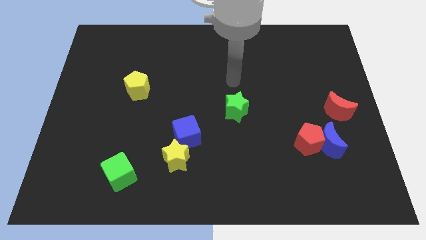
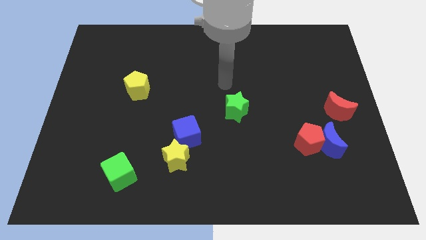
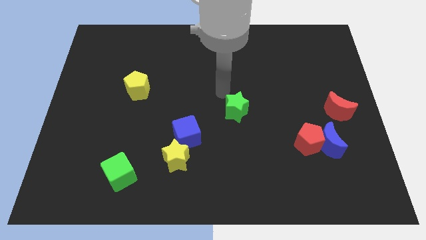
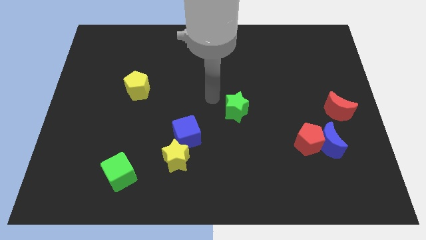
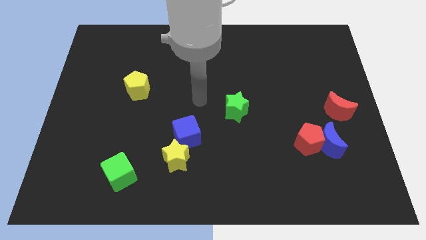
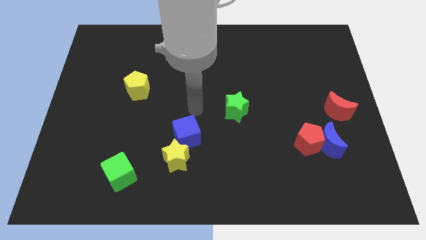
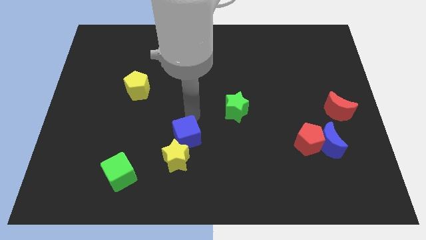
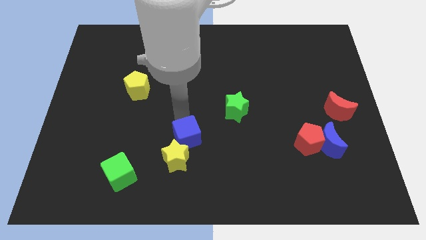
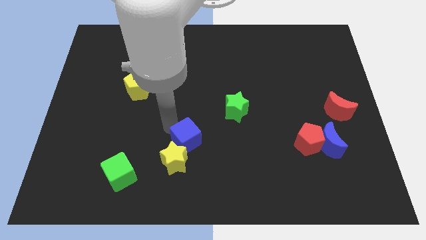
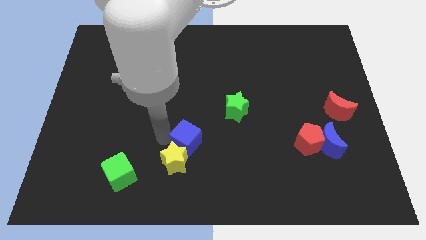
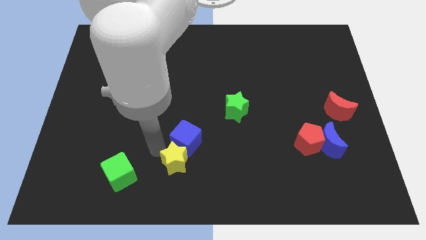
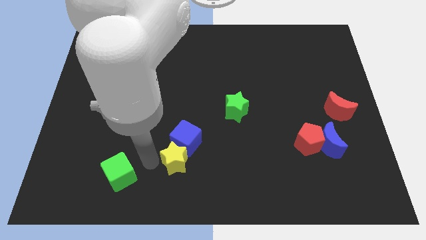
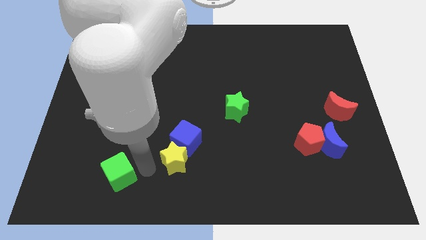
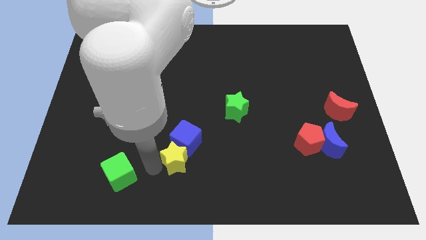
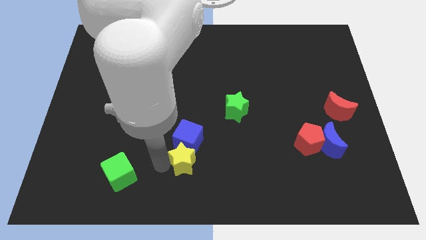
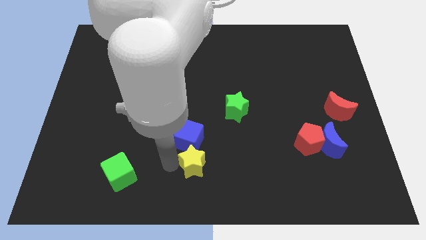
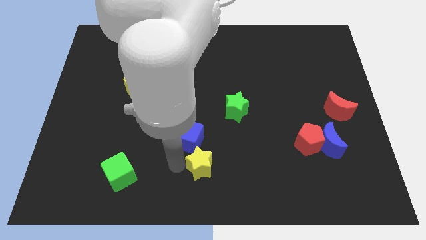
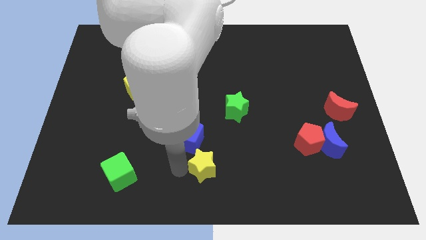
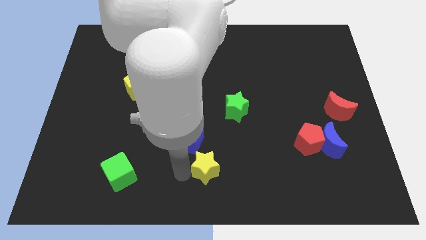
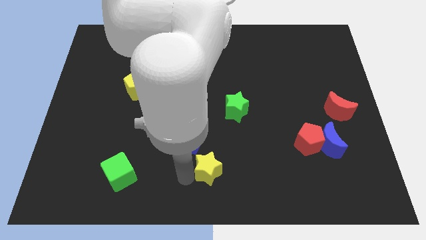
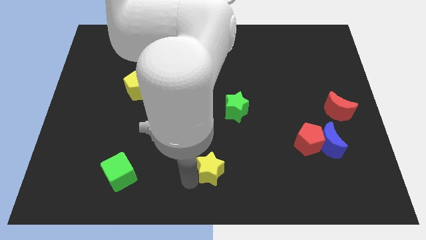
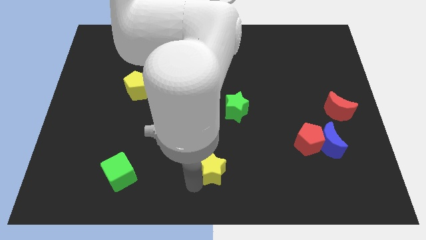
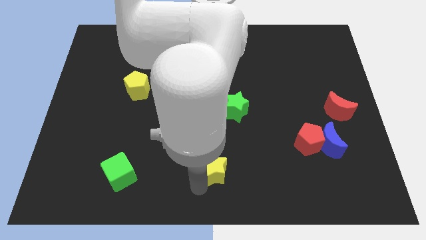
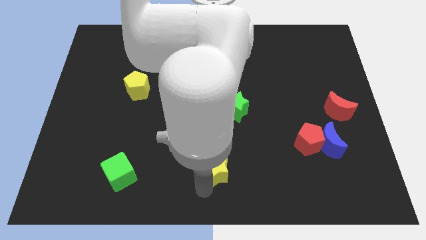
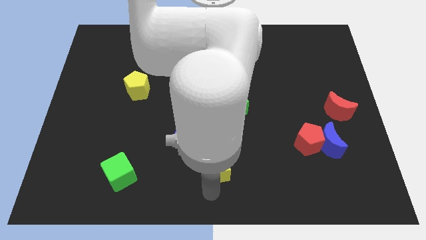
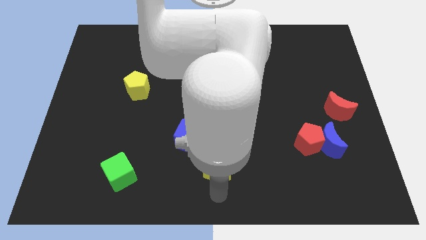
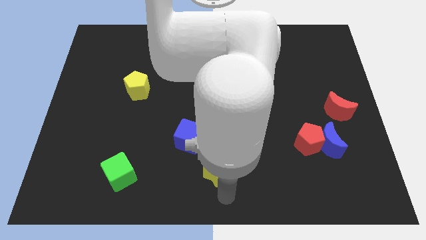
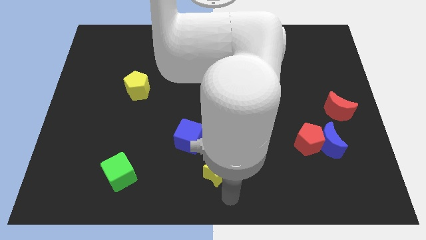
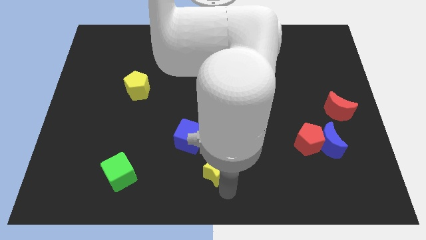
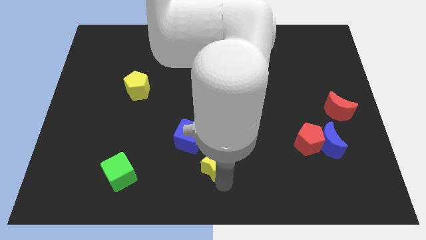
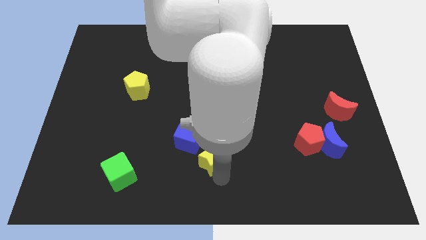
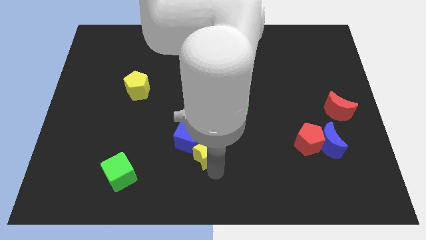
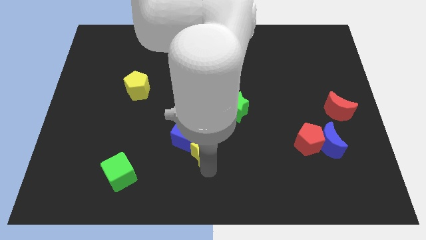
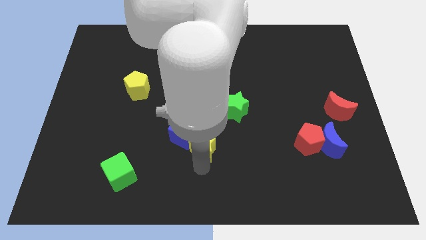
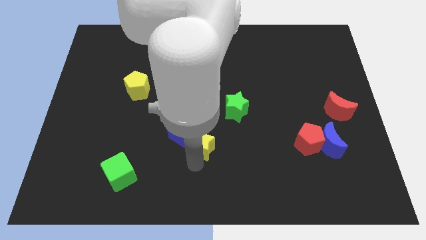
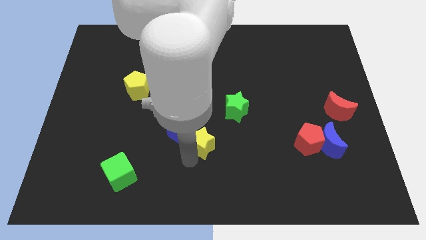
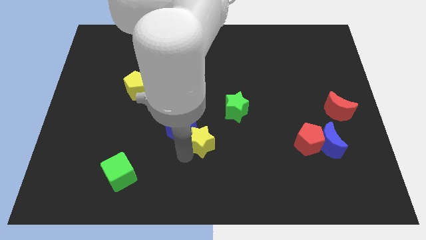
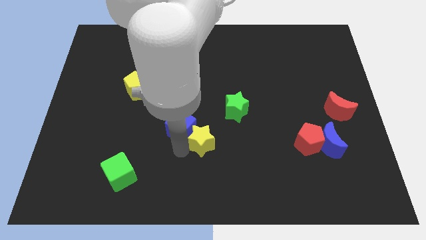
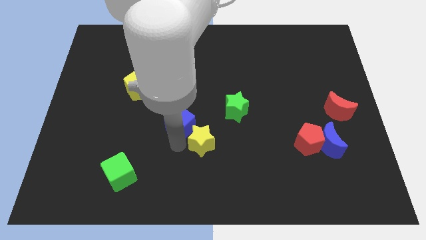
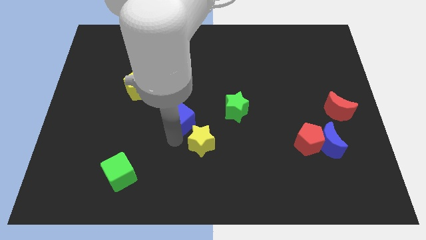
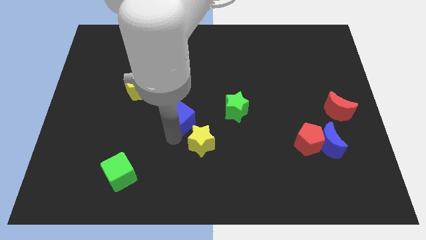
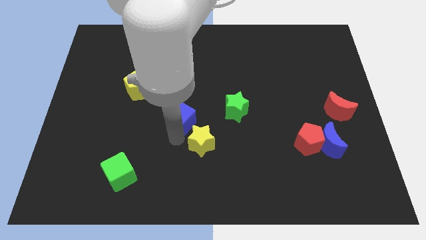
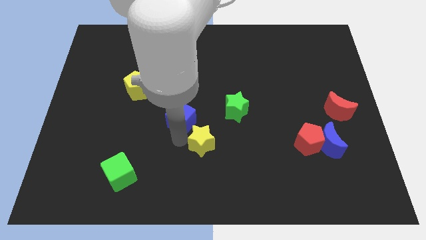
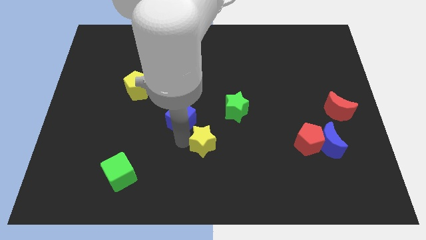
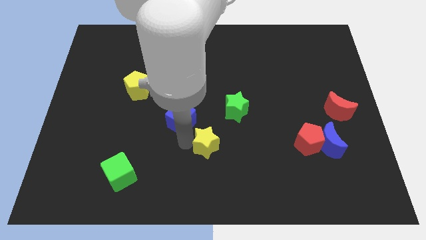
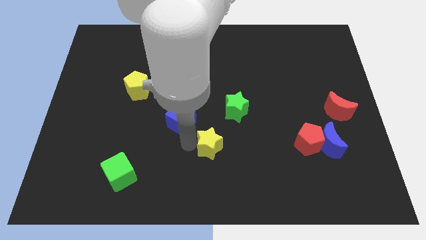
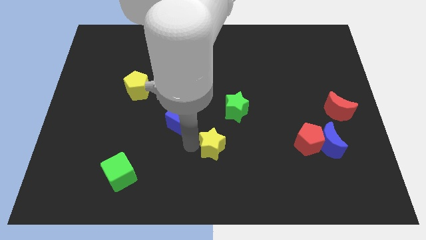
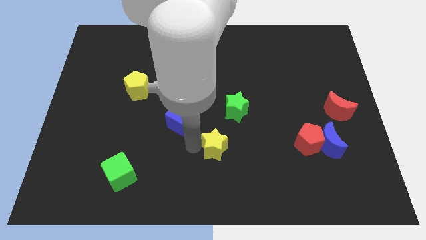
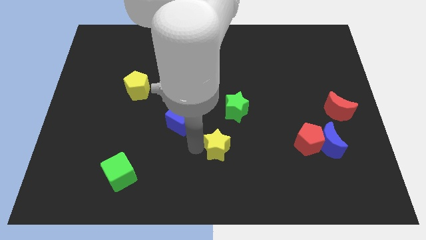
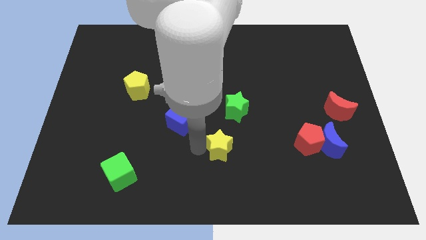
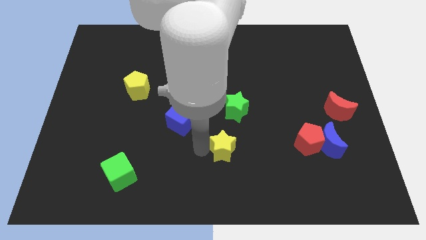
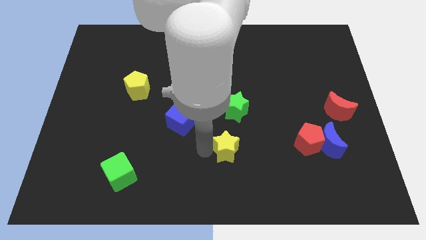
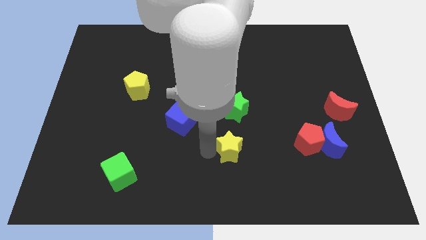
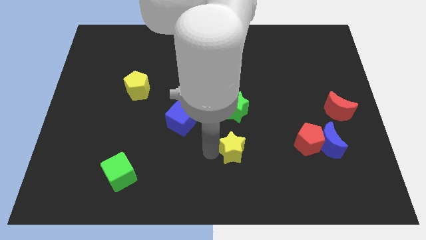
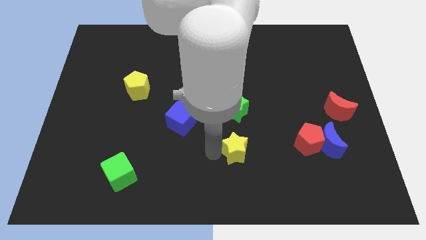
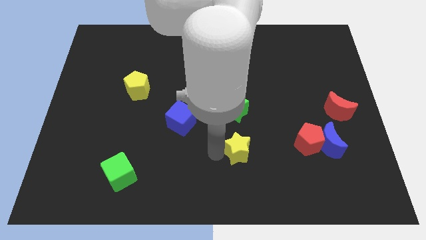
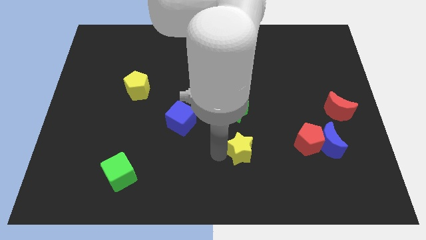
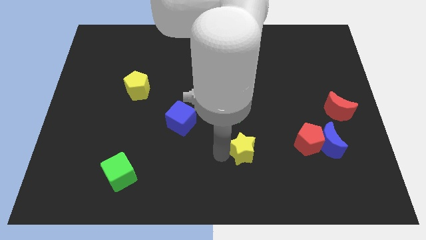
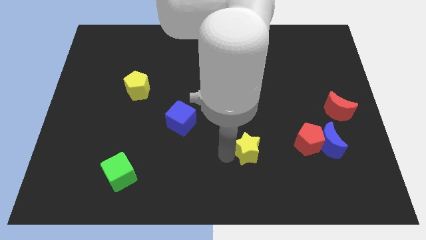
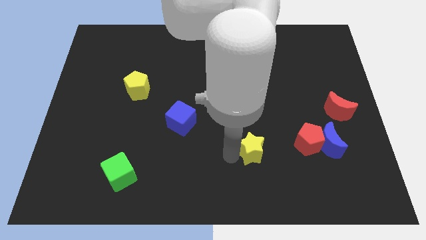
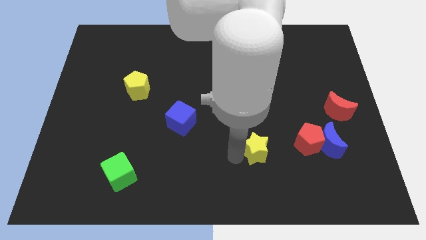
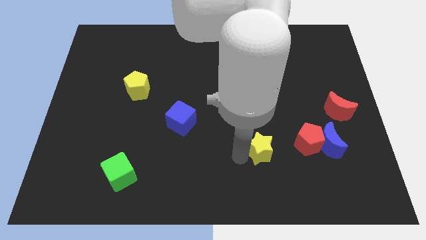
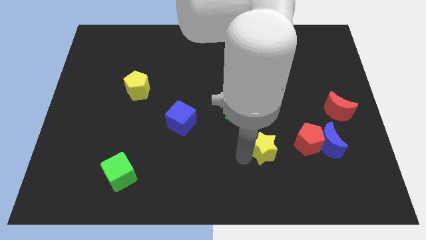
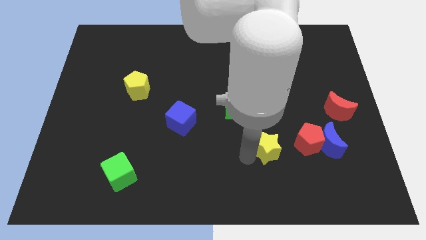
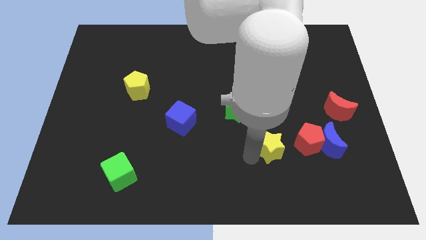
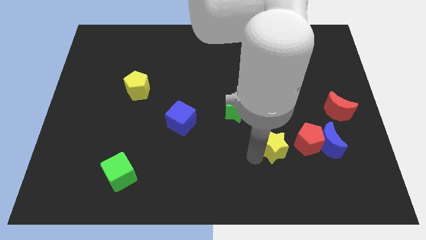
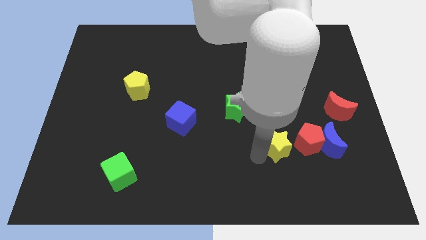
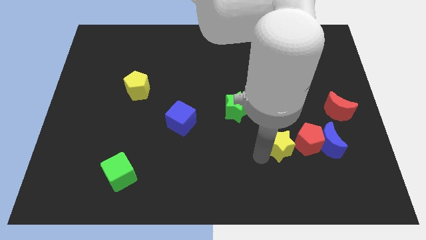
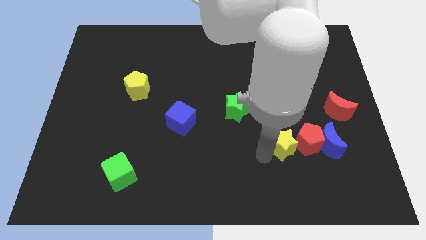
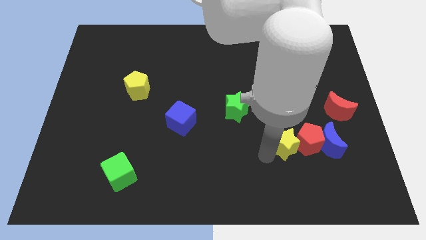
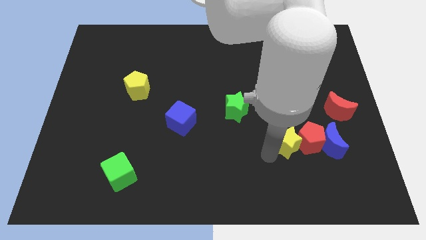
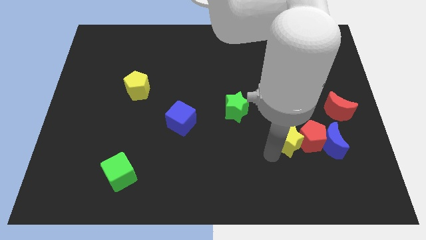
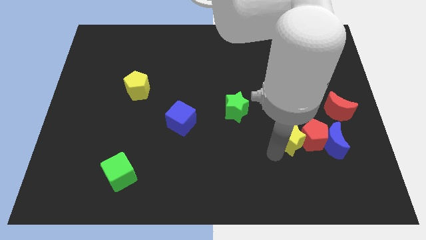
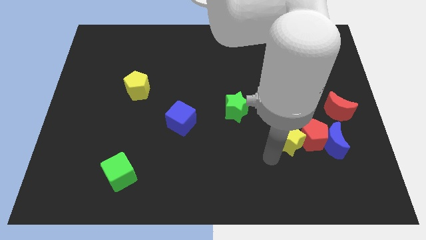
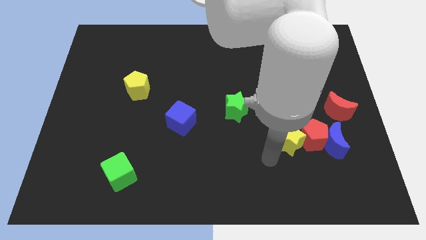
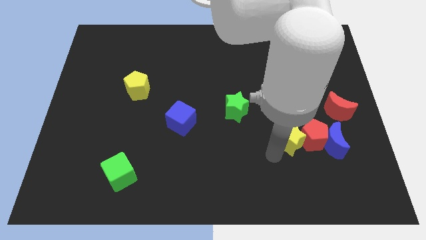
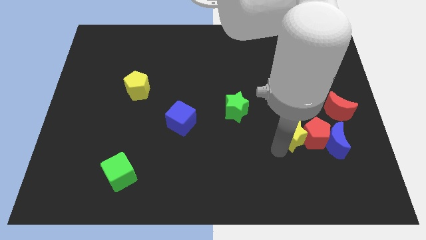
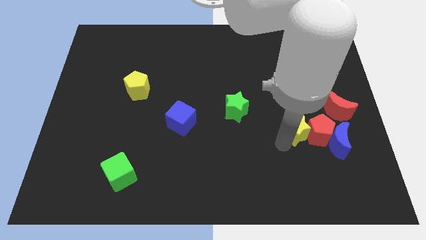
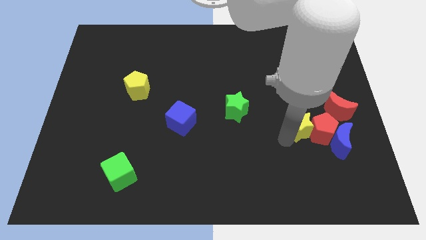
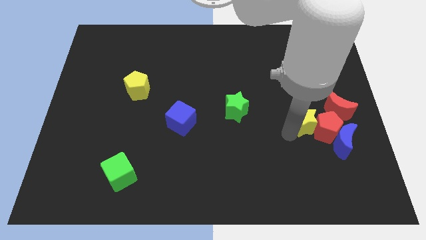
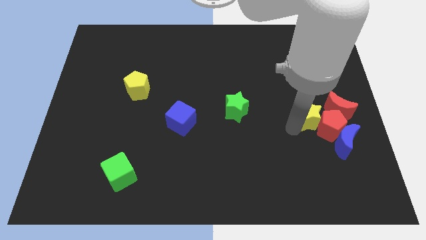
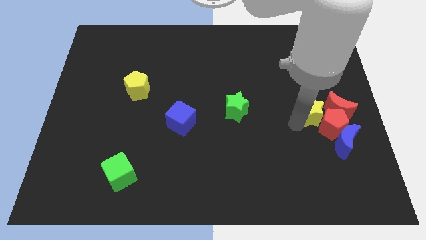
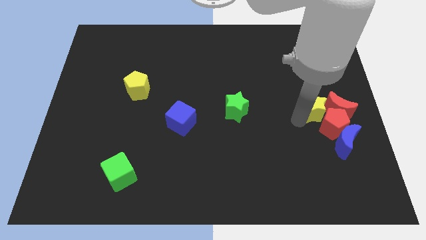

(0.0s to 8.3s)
slide the yellow star towards the red moon
